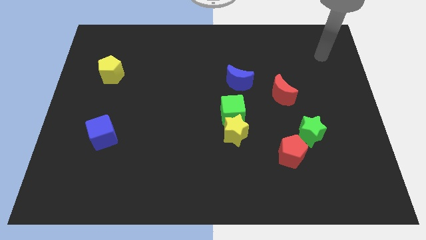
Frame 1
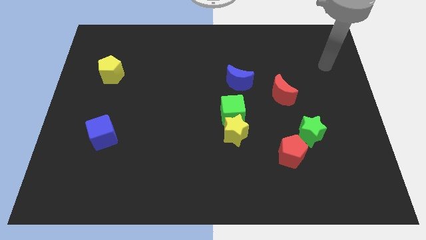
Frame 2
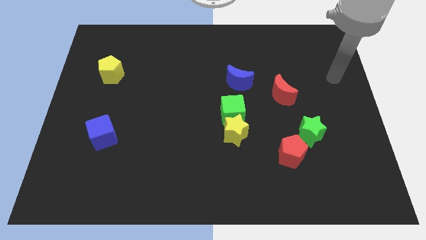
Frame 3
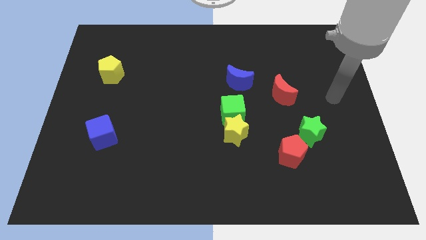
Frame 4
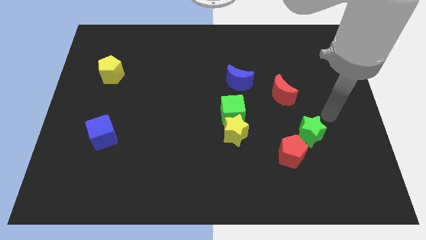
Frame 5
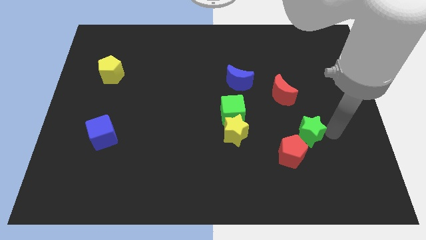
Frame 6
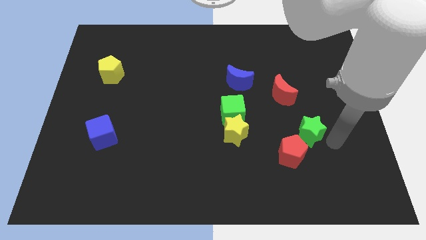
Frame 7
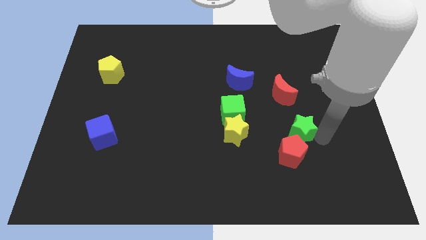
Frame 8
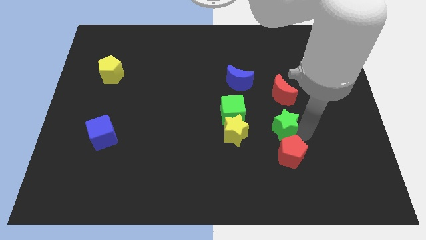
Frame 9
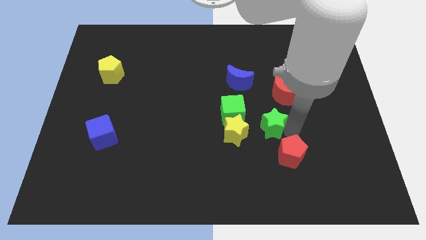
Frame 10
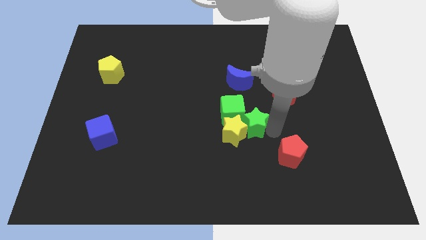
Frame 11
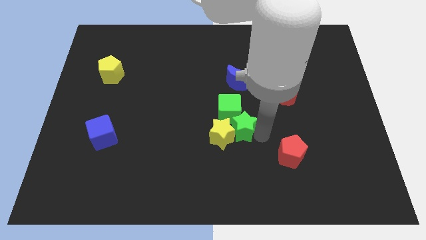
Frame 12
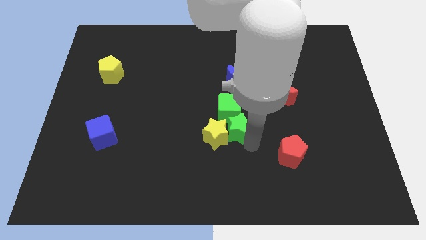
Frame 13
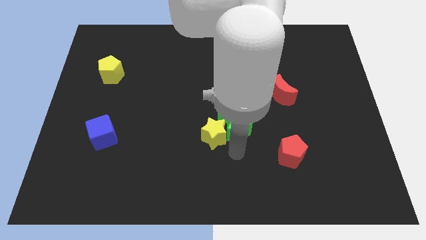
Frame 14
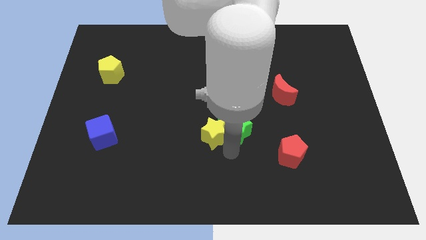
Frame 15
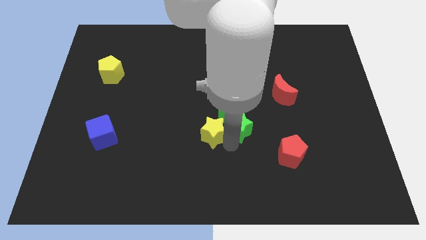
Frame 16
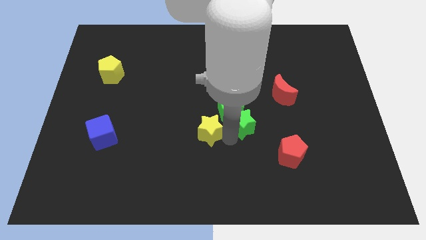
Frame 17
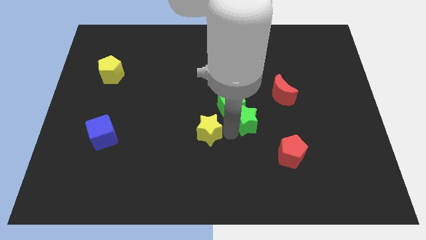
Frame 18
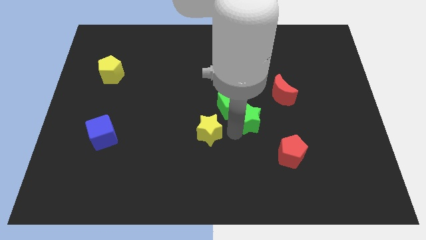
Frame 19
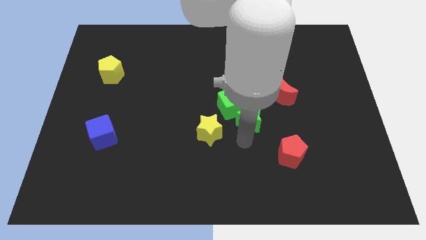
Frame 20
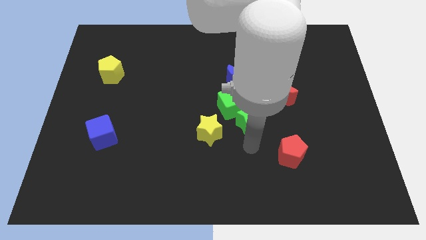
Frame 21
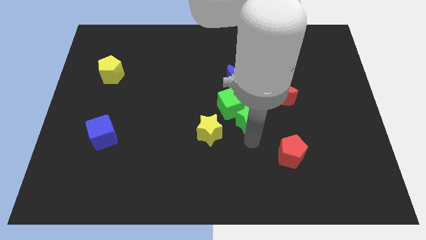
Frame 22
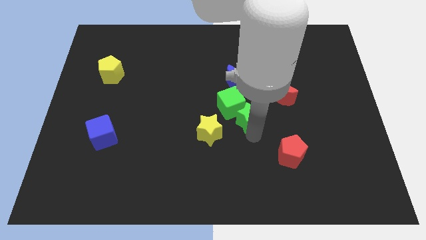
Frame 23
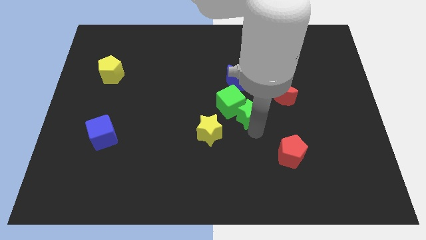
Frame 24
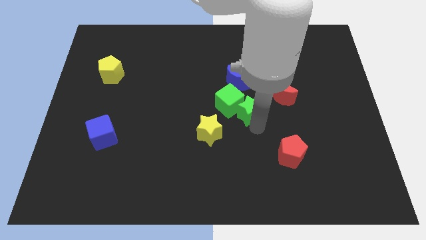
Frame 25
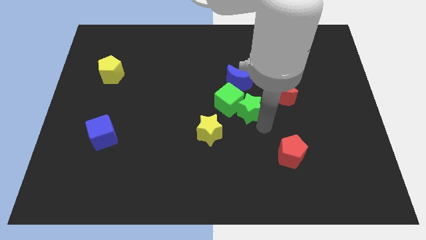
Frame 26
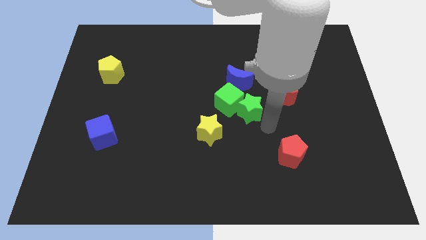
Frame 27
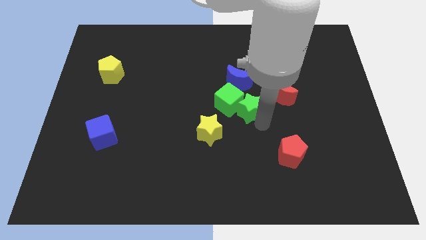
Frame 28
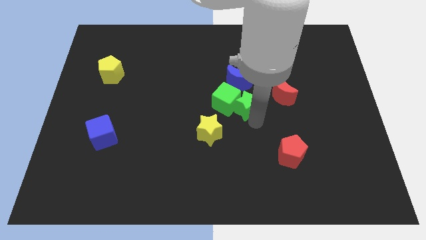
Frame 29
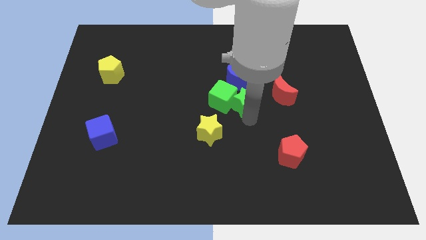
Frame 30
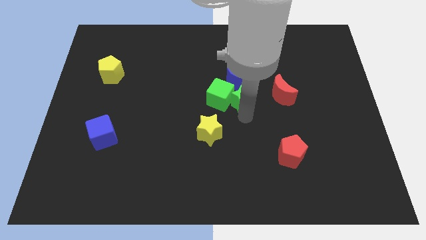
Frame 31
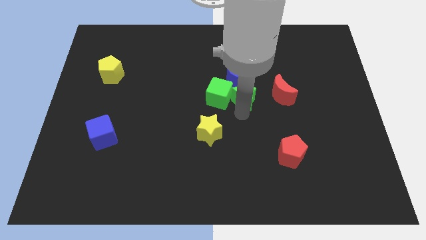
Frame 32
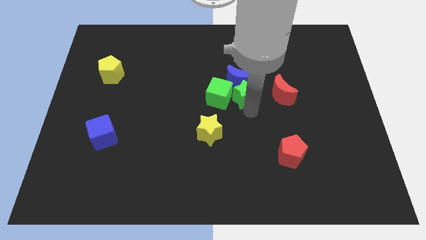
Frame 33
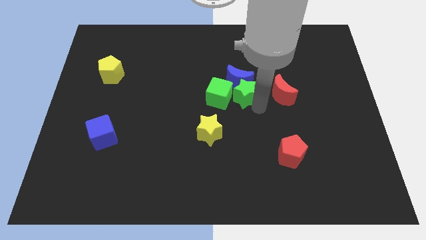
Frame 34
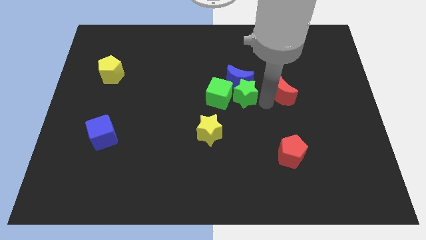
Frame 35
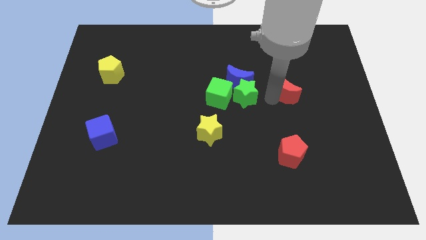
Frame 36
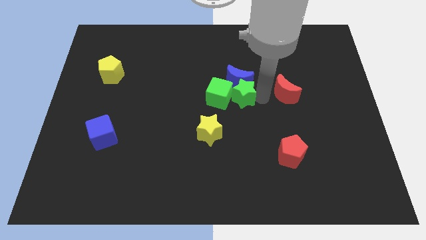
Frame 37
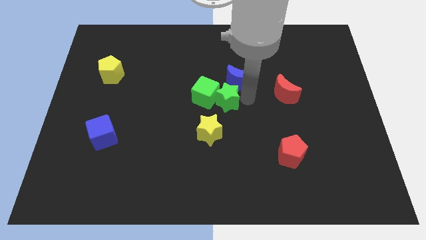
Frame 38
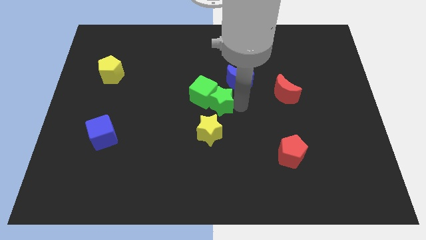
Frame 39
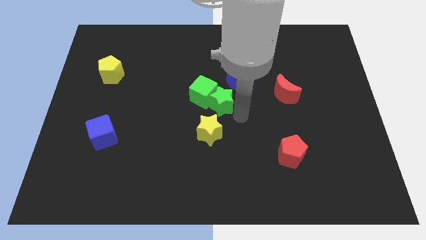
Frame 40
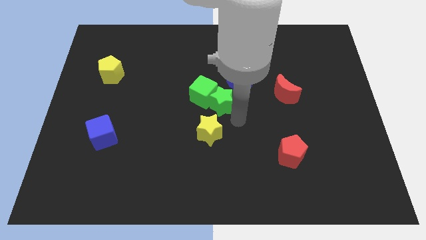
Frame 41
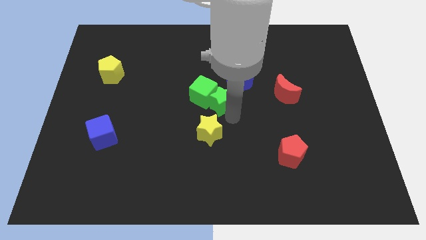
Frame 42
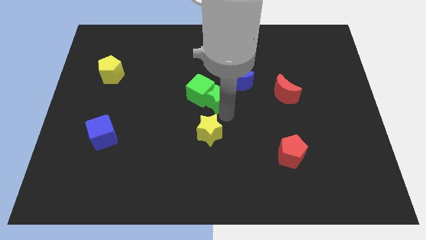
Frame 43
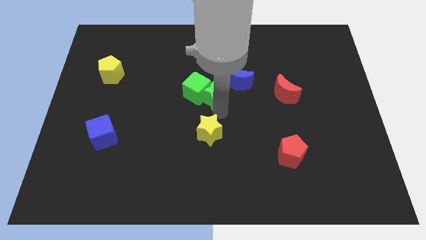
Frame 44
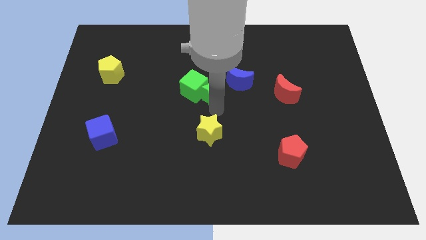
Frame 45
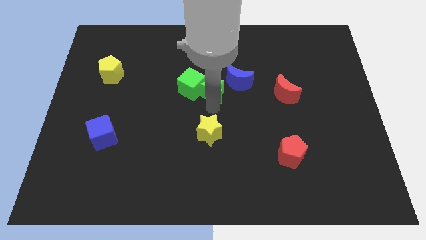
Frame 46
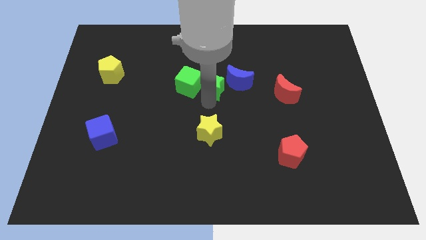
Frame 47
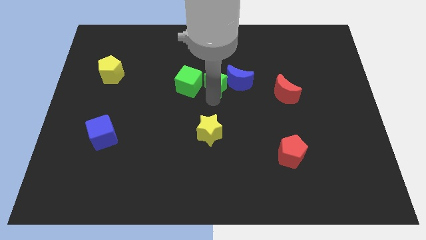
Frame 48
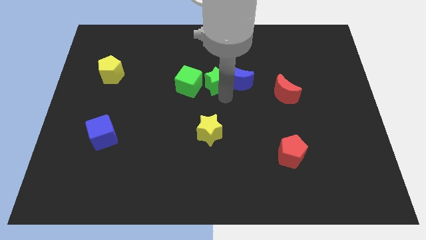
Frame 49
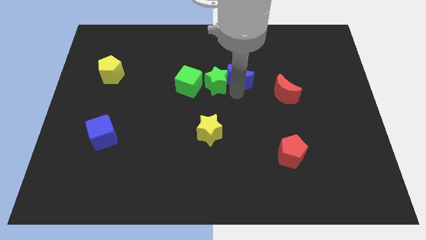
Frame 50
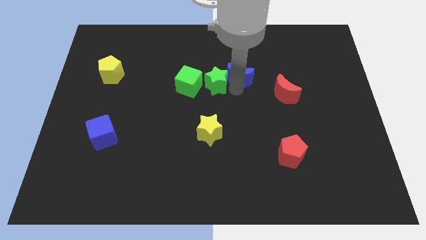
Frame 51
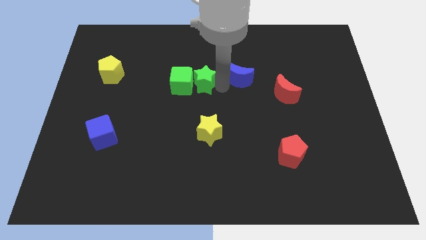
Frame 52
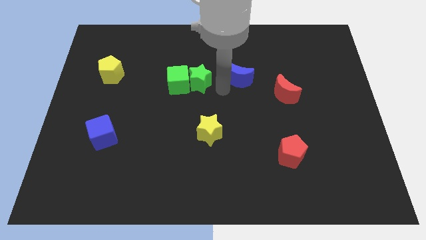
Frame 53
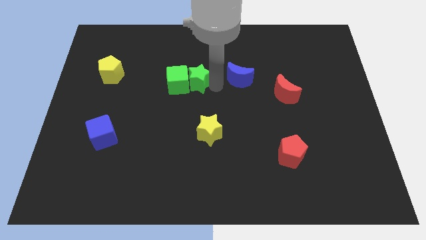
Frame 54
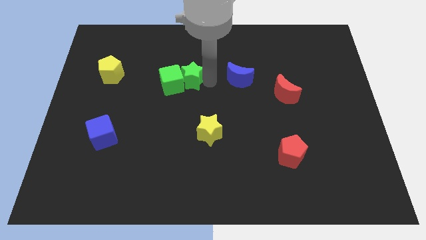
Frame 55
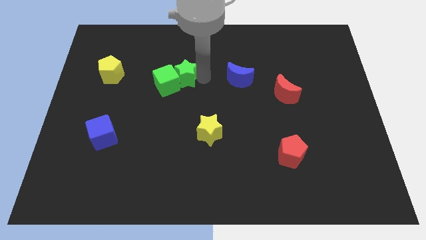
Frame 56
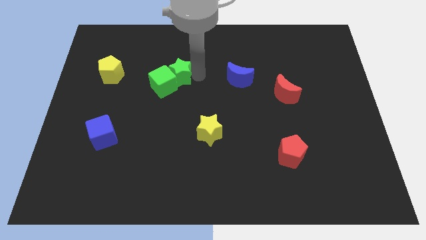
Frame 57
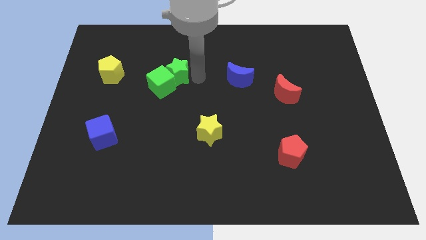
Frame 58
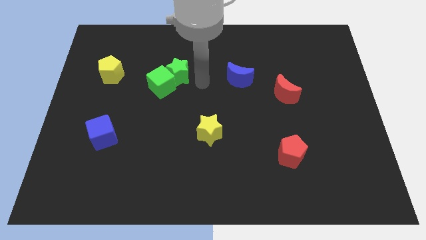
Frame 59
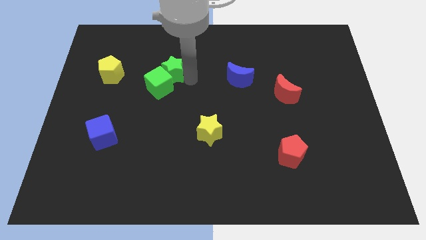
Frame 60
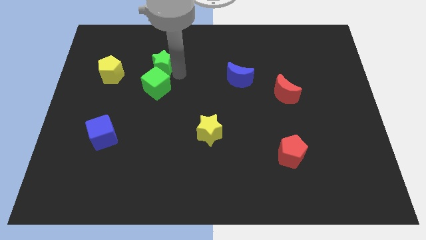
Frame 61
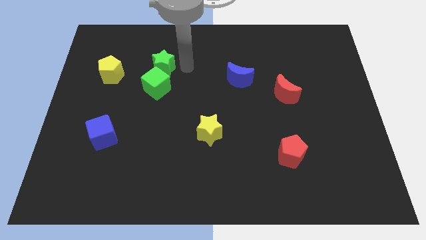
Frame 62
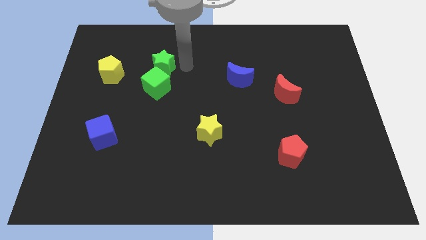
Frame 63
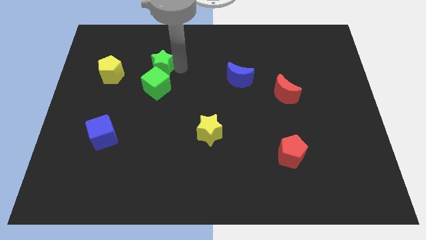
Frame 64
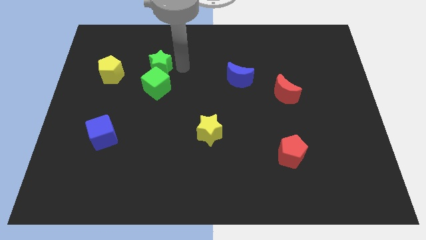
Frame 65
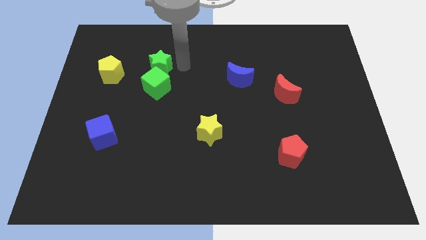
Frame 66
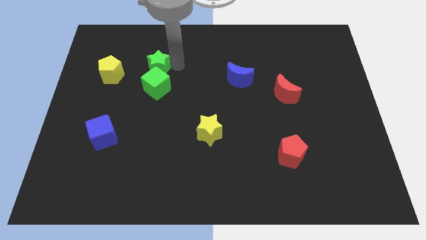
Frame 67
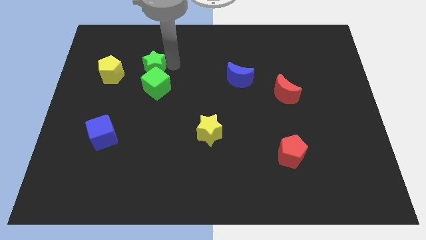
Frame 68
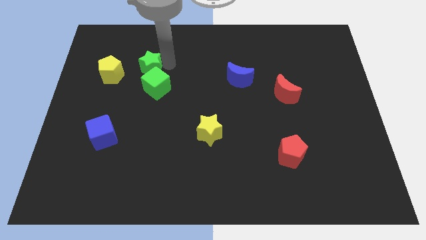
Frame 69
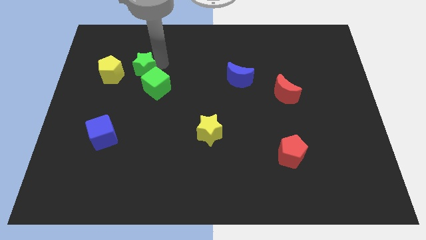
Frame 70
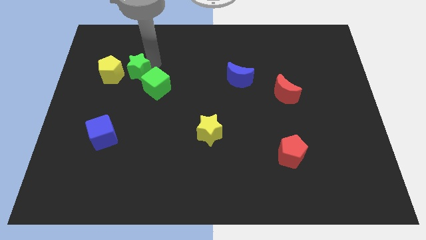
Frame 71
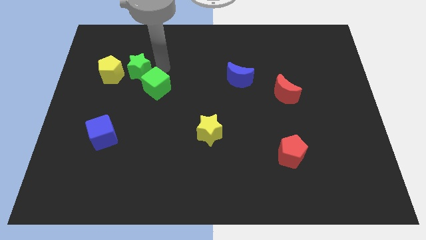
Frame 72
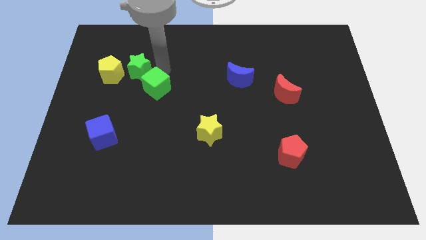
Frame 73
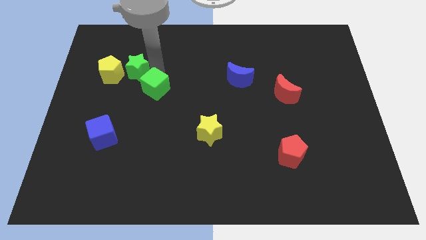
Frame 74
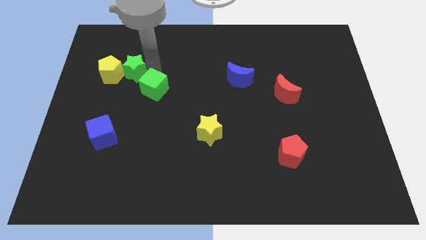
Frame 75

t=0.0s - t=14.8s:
move the green star to the yellow pentagon
